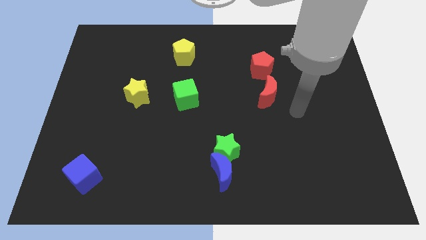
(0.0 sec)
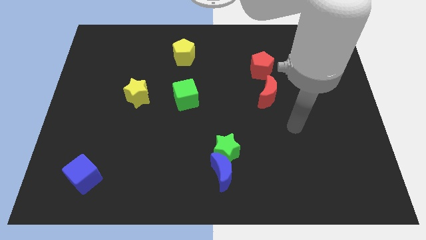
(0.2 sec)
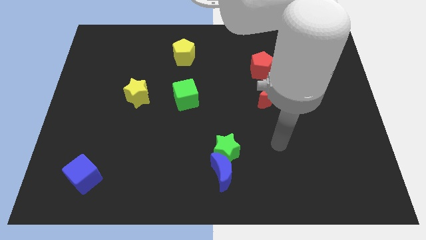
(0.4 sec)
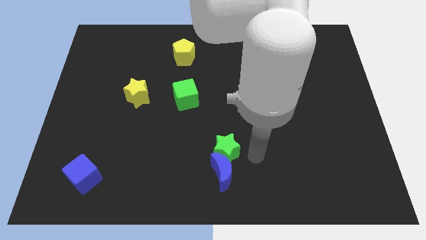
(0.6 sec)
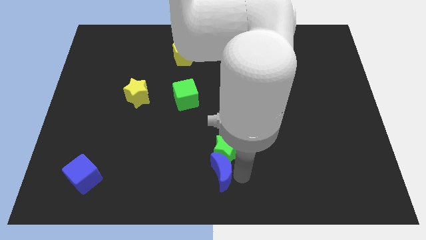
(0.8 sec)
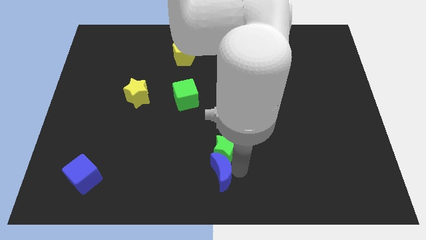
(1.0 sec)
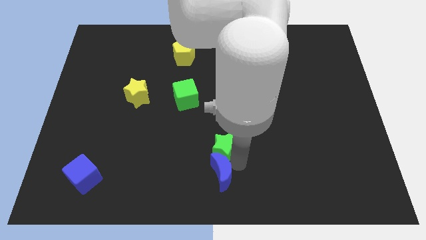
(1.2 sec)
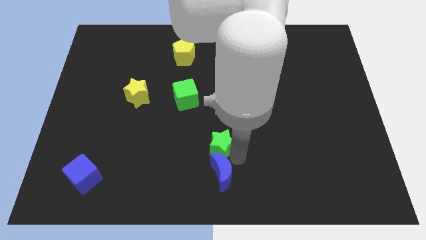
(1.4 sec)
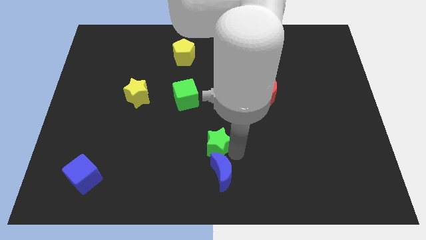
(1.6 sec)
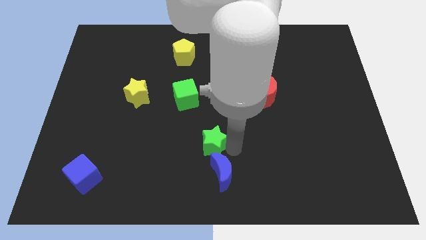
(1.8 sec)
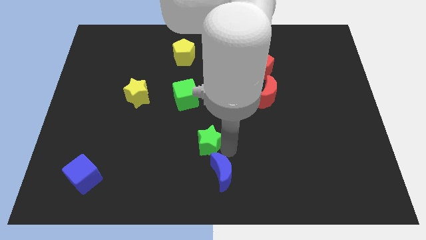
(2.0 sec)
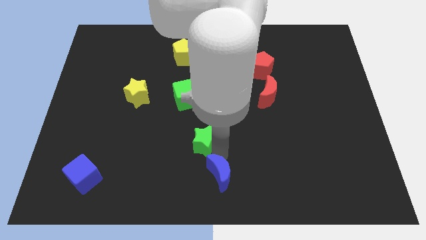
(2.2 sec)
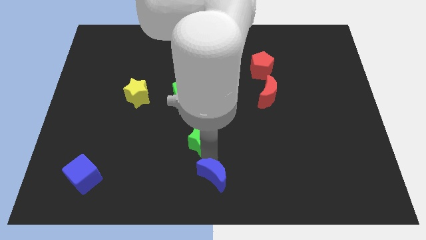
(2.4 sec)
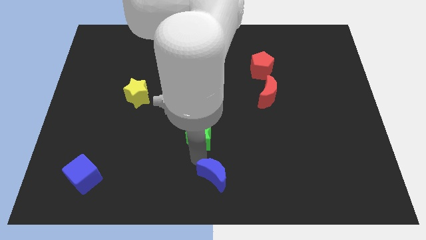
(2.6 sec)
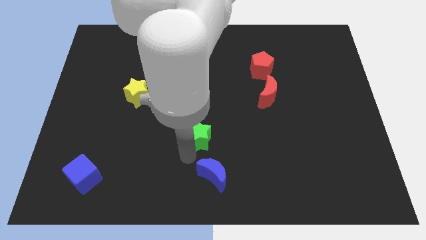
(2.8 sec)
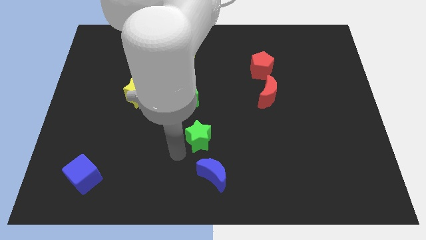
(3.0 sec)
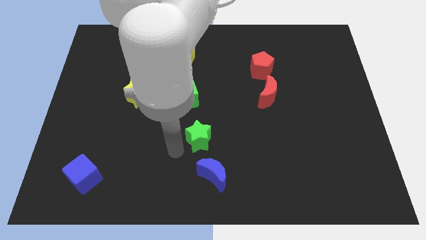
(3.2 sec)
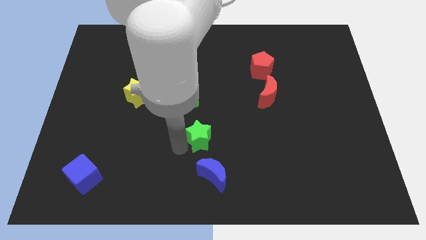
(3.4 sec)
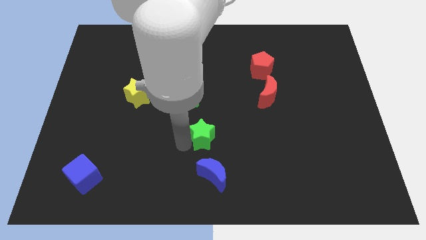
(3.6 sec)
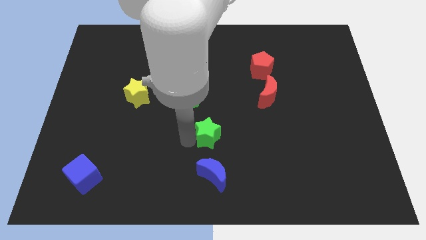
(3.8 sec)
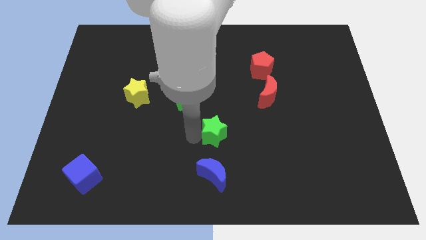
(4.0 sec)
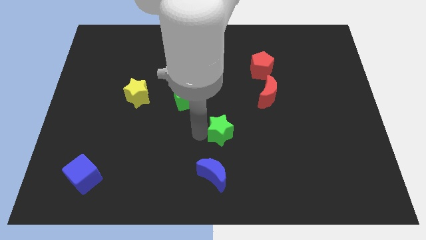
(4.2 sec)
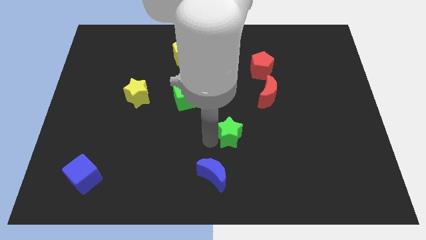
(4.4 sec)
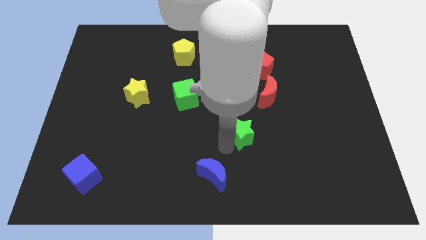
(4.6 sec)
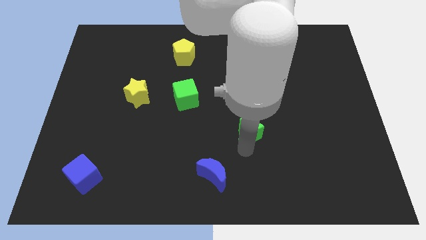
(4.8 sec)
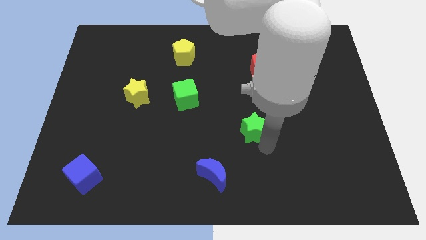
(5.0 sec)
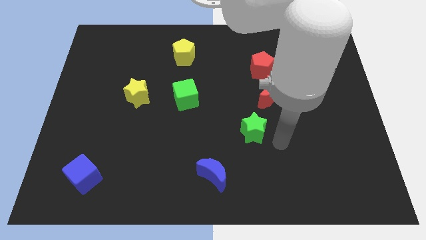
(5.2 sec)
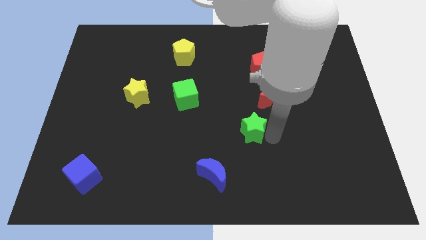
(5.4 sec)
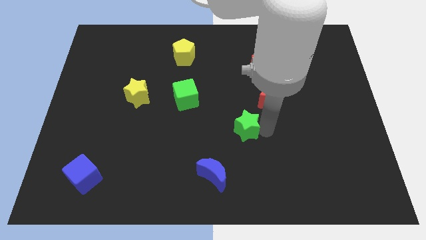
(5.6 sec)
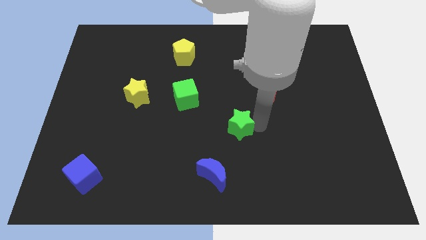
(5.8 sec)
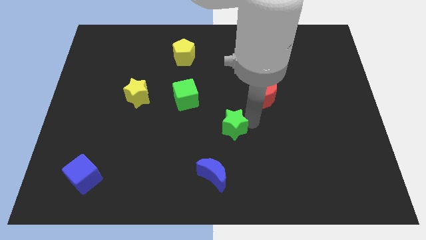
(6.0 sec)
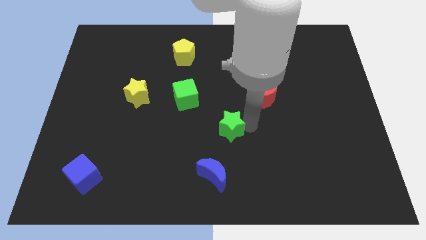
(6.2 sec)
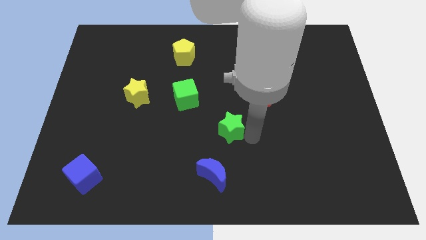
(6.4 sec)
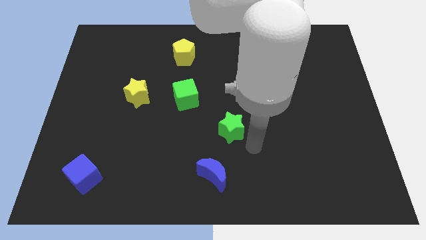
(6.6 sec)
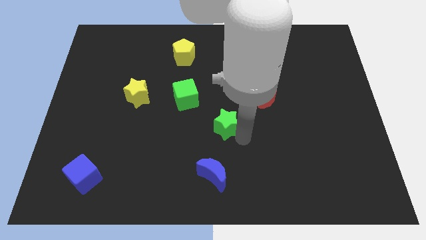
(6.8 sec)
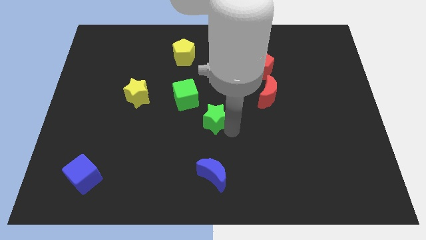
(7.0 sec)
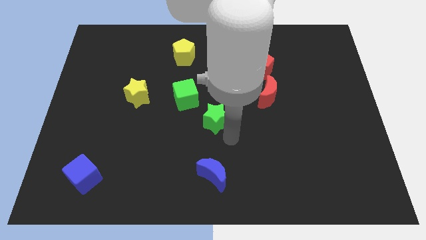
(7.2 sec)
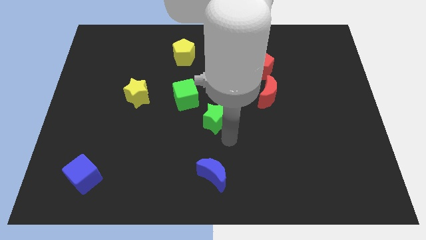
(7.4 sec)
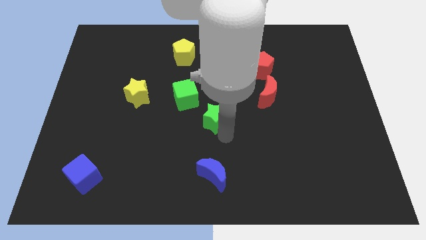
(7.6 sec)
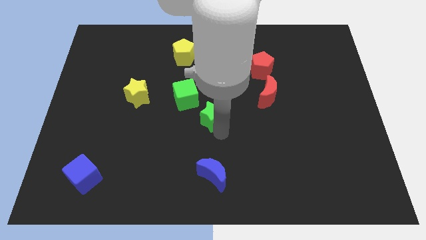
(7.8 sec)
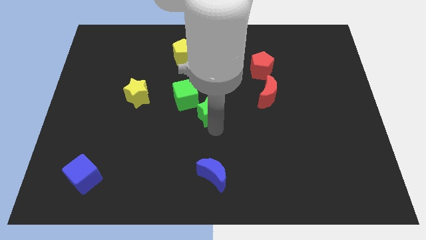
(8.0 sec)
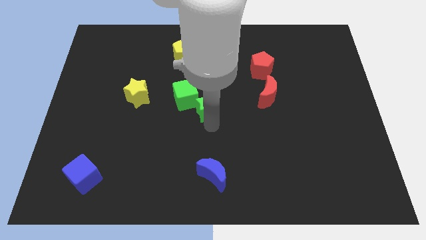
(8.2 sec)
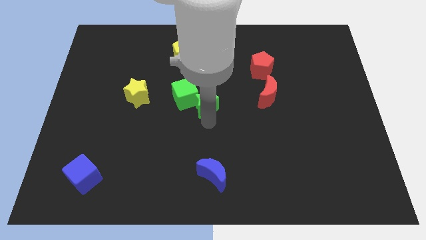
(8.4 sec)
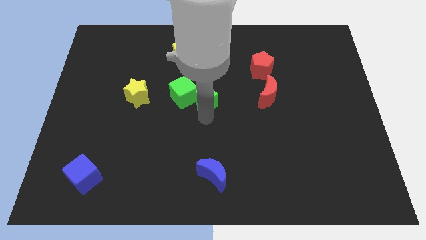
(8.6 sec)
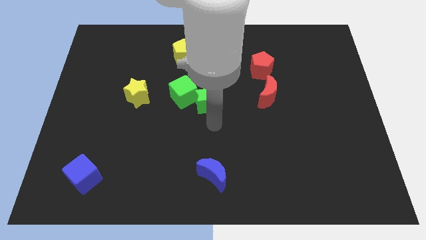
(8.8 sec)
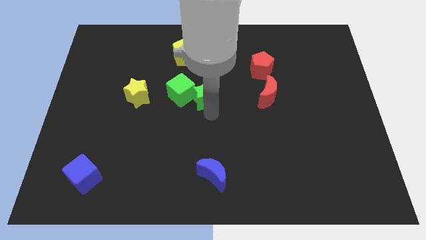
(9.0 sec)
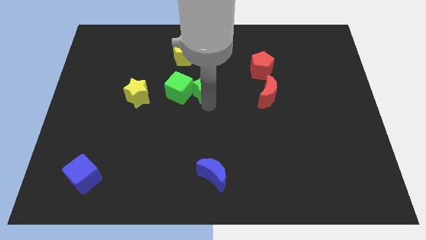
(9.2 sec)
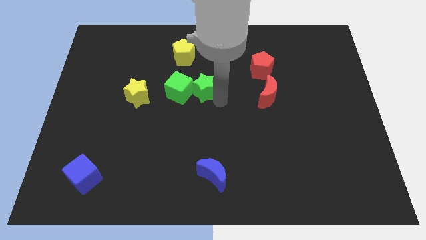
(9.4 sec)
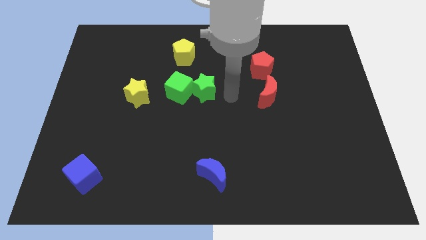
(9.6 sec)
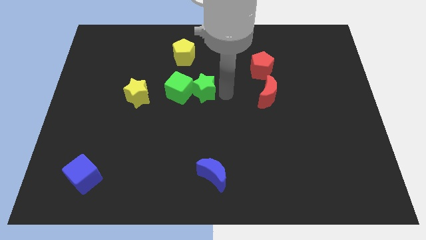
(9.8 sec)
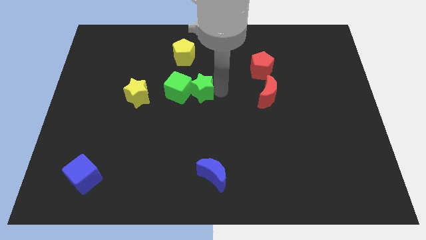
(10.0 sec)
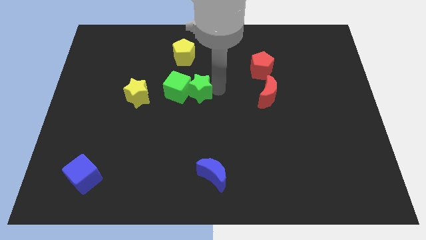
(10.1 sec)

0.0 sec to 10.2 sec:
push the green star below the yellow pentagon

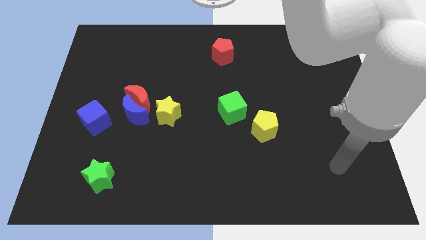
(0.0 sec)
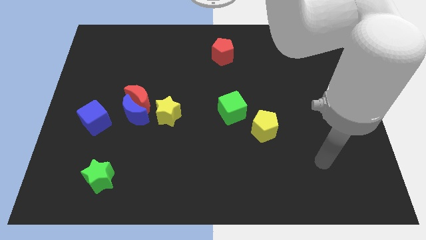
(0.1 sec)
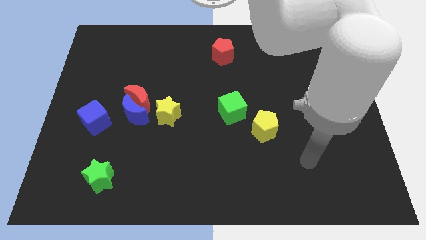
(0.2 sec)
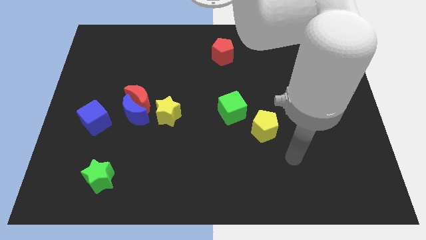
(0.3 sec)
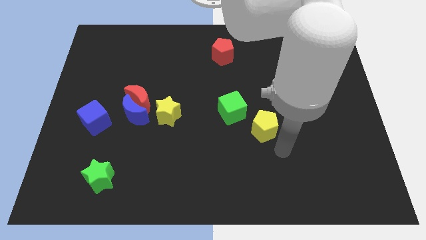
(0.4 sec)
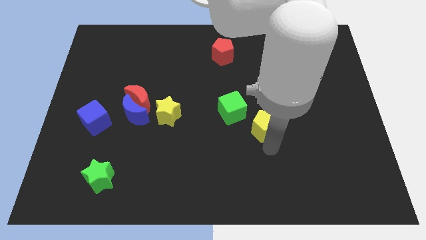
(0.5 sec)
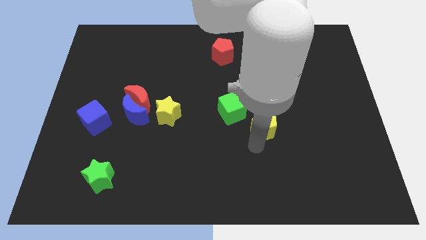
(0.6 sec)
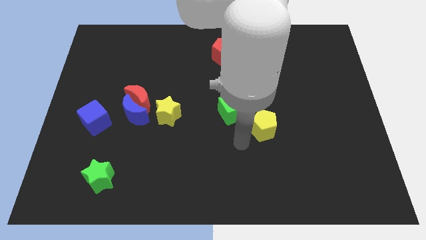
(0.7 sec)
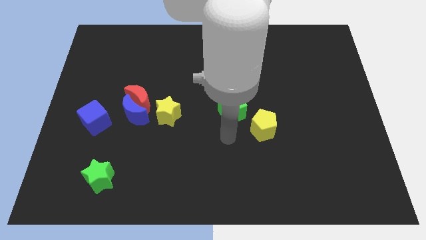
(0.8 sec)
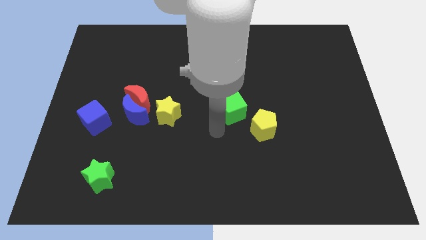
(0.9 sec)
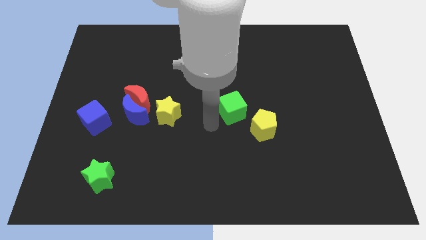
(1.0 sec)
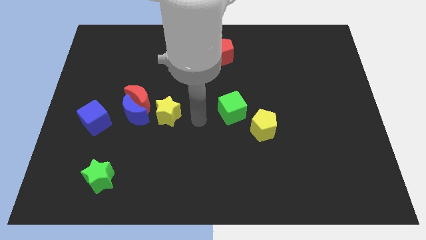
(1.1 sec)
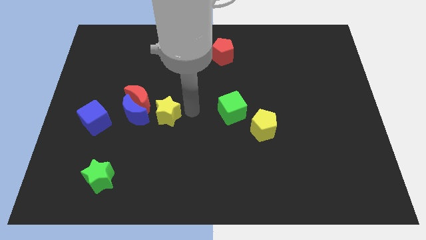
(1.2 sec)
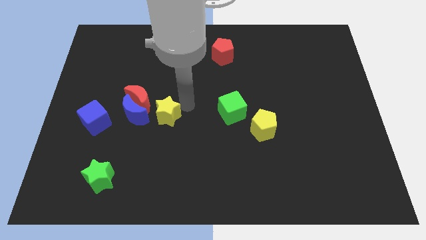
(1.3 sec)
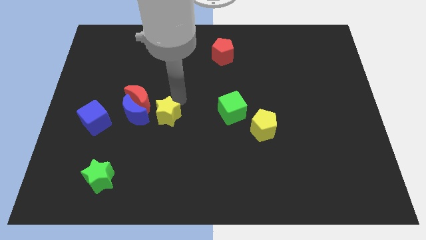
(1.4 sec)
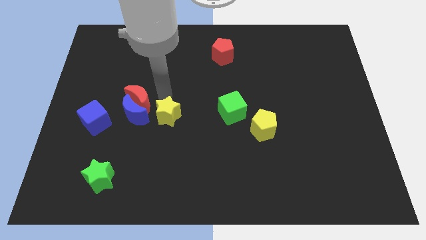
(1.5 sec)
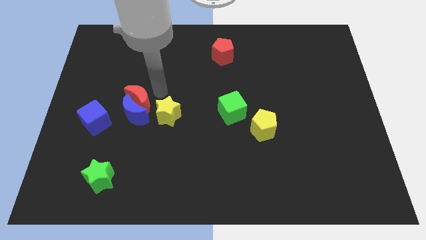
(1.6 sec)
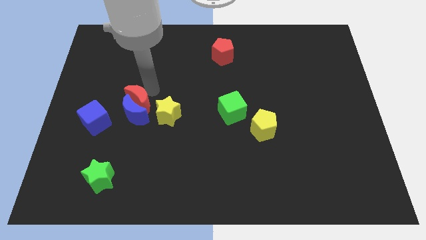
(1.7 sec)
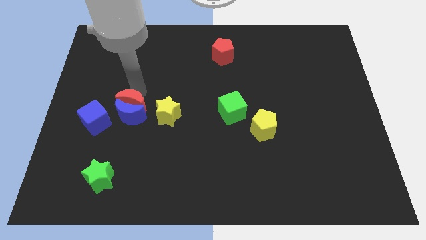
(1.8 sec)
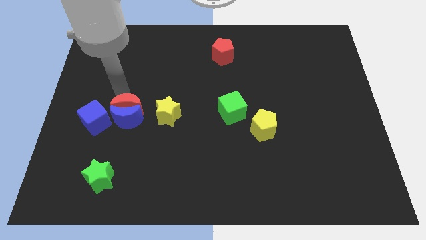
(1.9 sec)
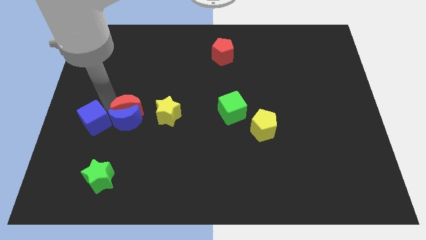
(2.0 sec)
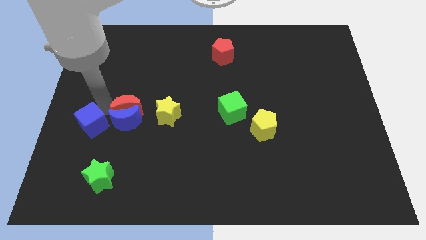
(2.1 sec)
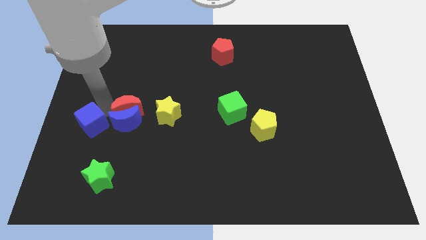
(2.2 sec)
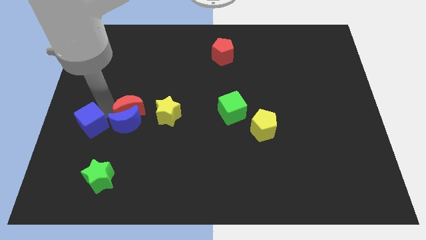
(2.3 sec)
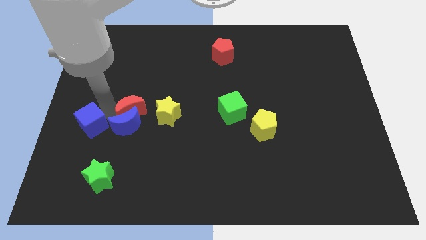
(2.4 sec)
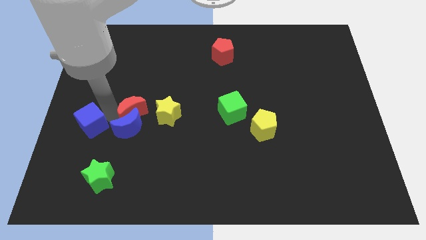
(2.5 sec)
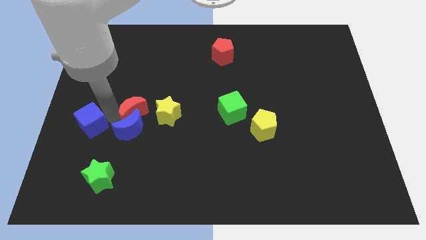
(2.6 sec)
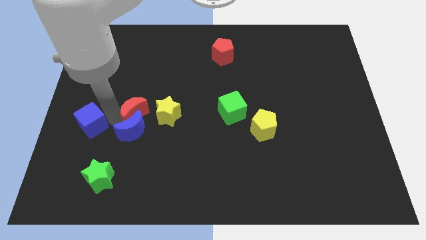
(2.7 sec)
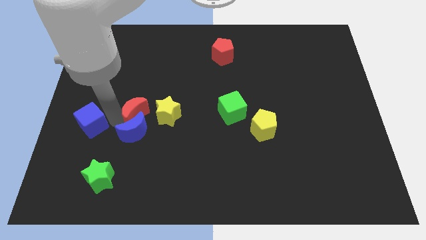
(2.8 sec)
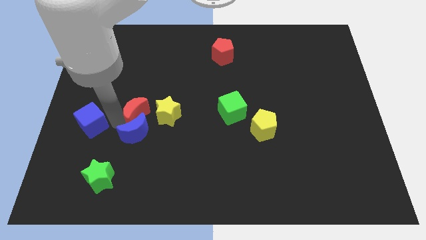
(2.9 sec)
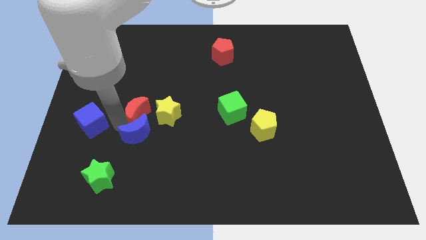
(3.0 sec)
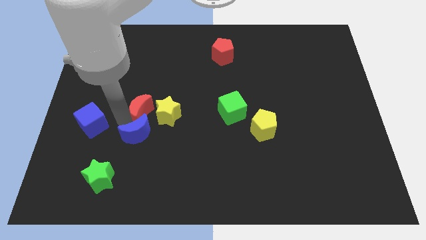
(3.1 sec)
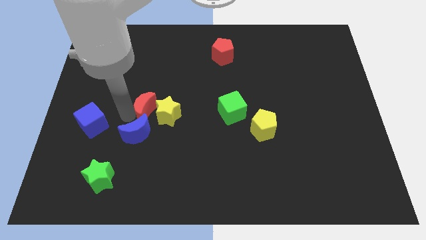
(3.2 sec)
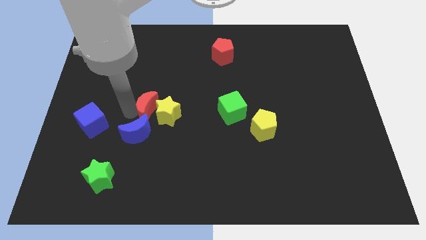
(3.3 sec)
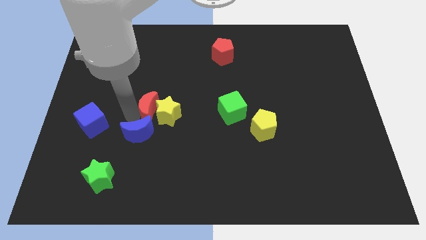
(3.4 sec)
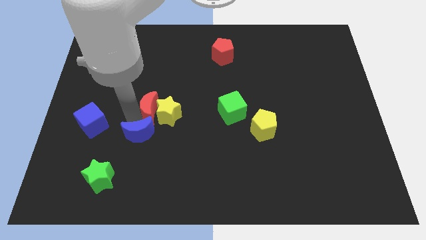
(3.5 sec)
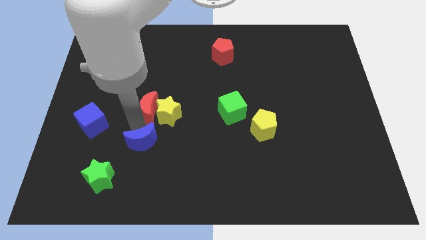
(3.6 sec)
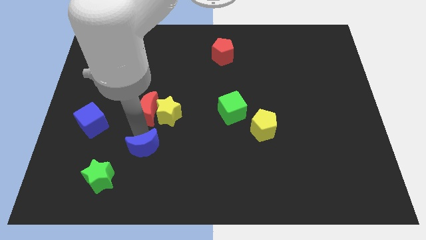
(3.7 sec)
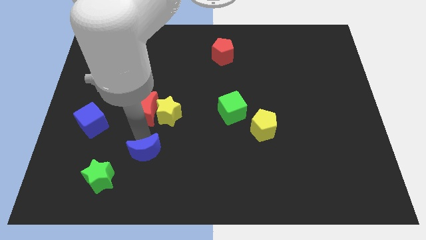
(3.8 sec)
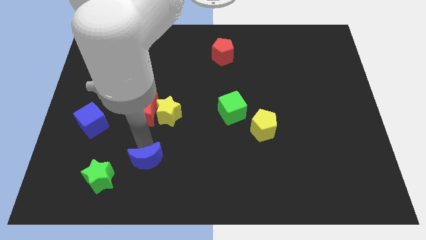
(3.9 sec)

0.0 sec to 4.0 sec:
move the blue moon to the right of the green star
